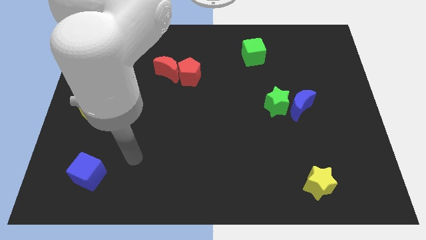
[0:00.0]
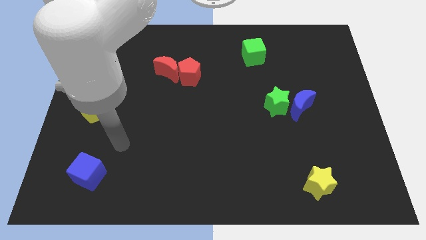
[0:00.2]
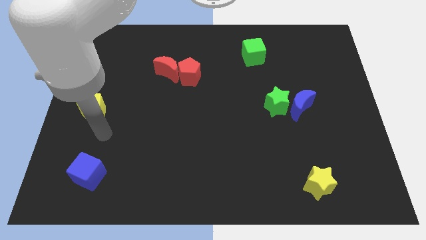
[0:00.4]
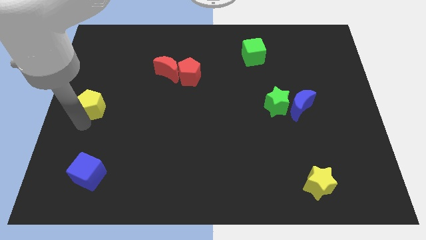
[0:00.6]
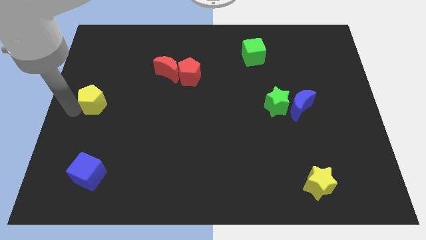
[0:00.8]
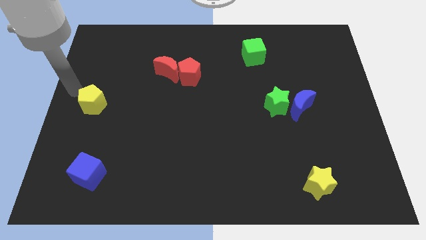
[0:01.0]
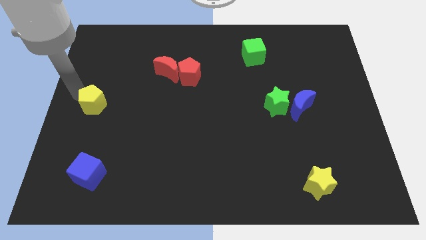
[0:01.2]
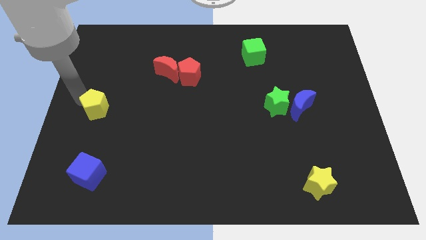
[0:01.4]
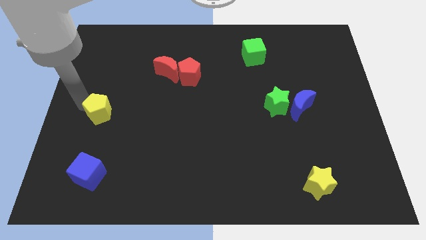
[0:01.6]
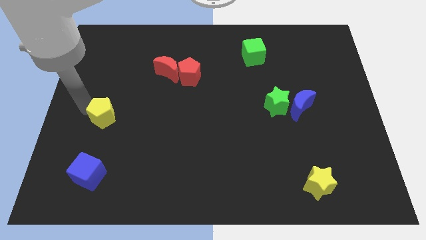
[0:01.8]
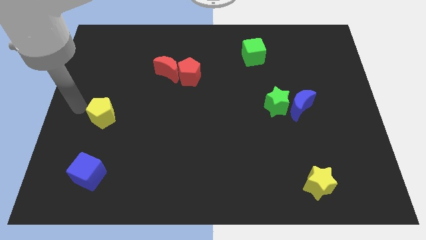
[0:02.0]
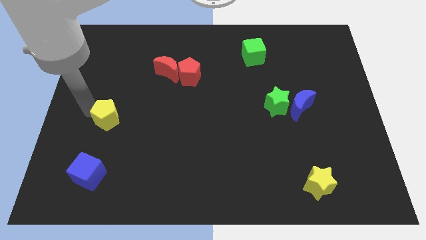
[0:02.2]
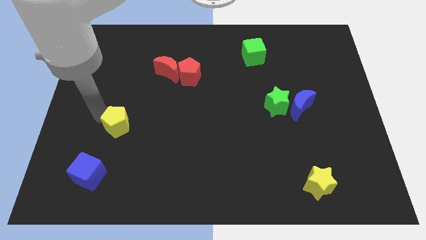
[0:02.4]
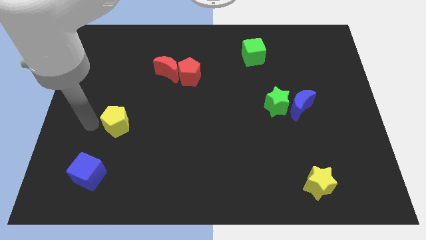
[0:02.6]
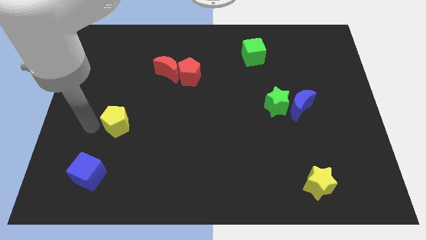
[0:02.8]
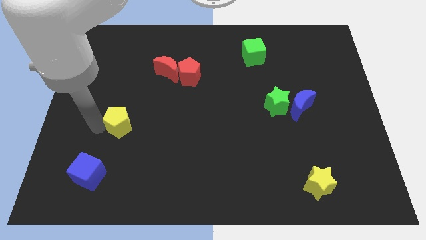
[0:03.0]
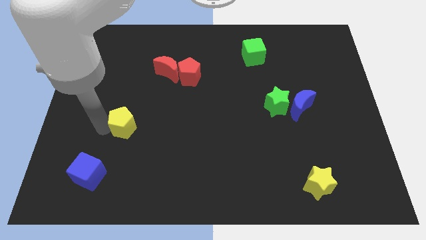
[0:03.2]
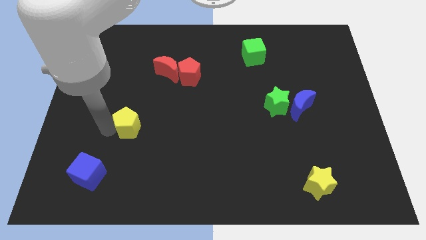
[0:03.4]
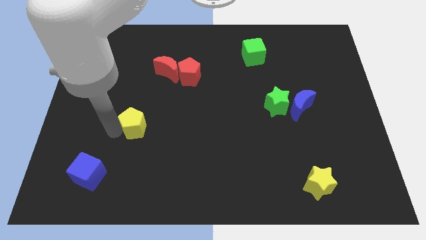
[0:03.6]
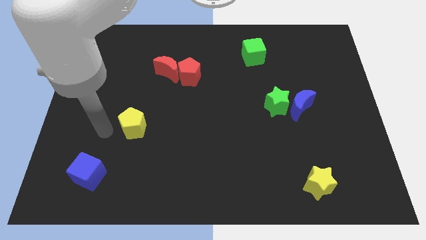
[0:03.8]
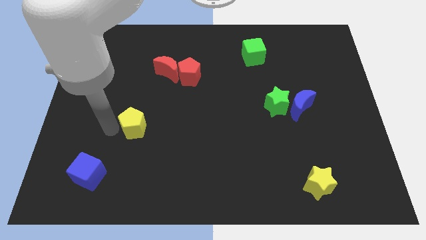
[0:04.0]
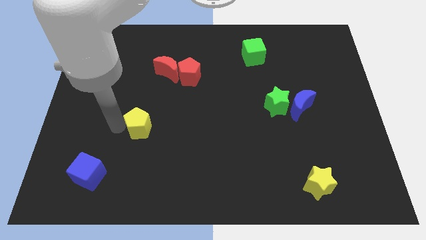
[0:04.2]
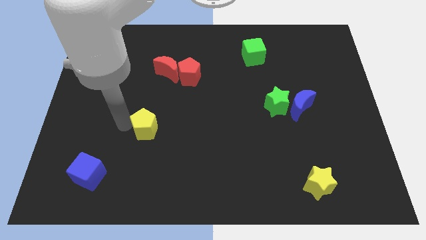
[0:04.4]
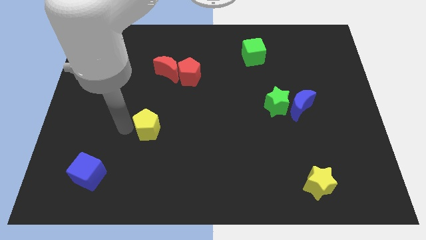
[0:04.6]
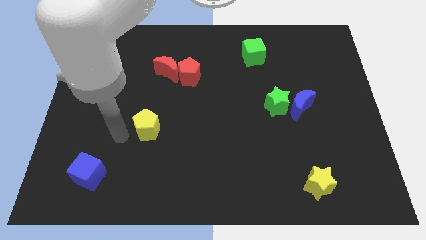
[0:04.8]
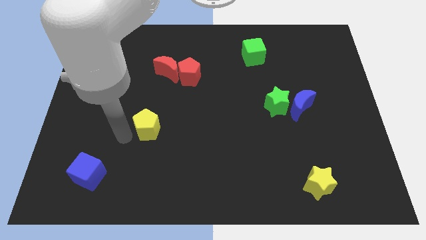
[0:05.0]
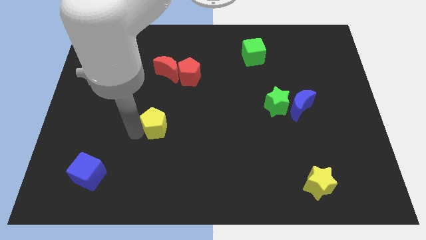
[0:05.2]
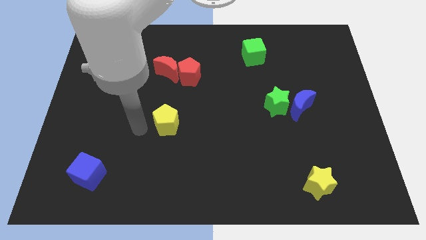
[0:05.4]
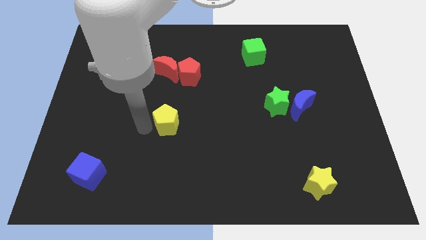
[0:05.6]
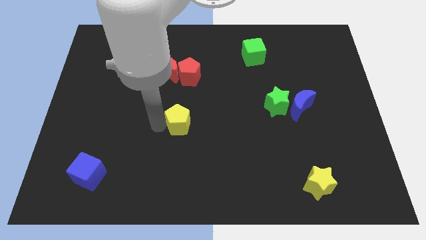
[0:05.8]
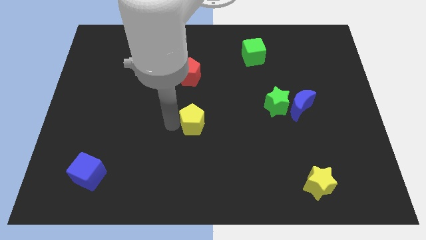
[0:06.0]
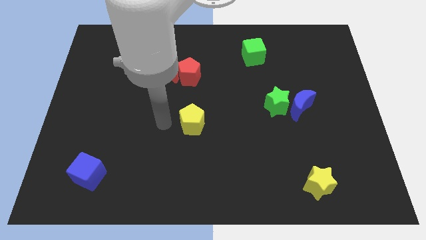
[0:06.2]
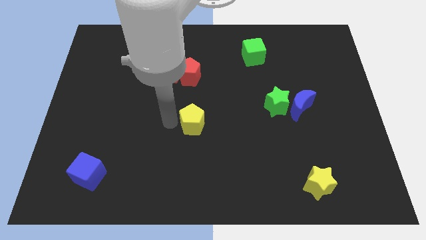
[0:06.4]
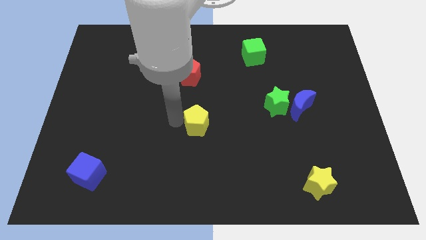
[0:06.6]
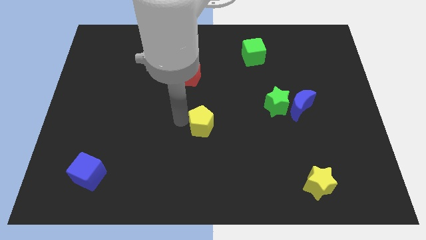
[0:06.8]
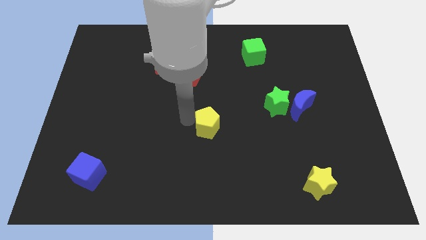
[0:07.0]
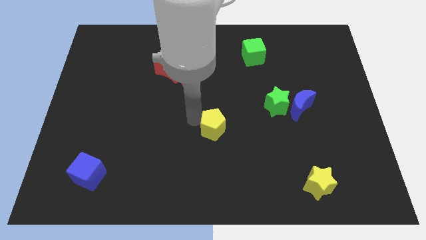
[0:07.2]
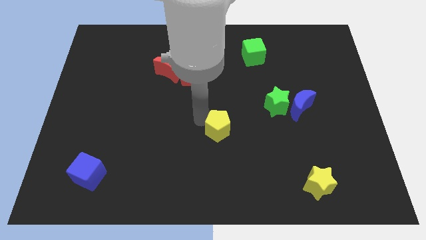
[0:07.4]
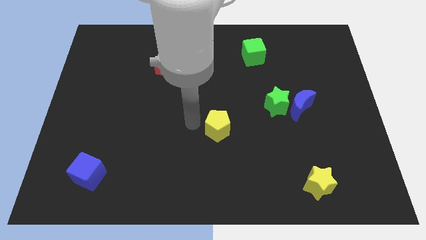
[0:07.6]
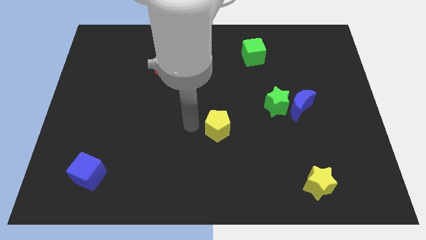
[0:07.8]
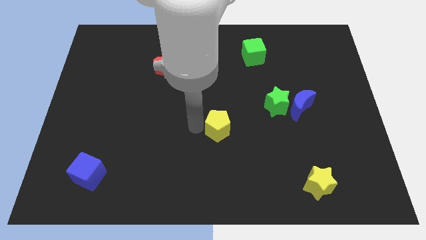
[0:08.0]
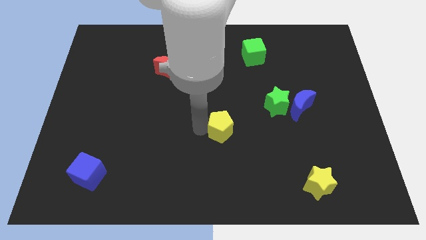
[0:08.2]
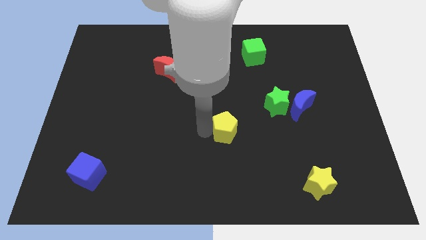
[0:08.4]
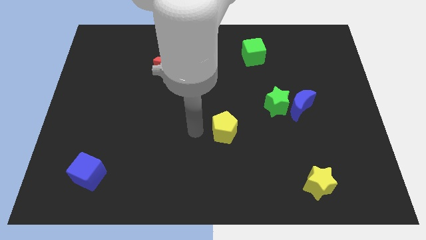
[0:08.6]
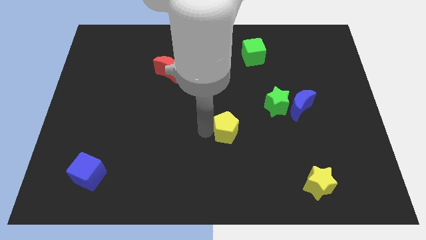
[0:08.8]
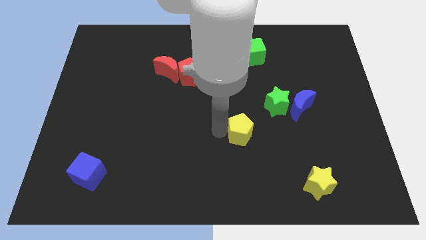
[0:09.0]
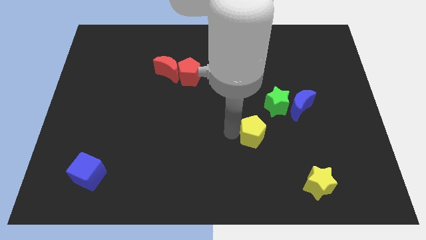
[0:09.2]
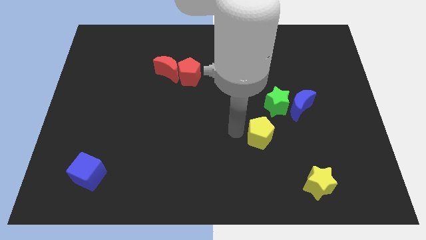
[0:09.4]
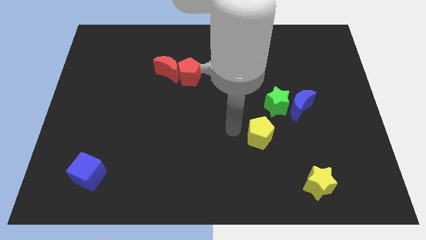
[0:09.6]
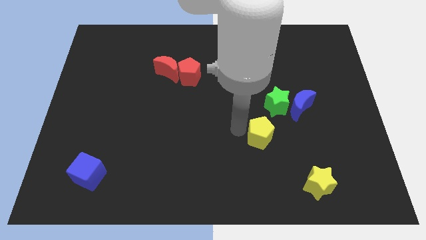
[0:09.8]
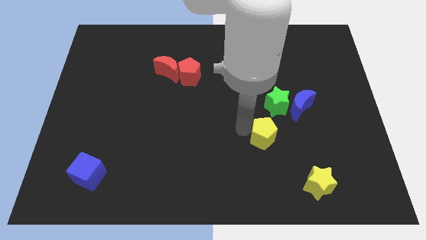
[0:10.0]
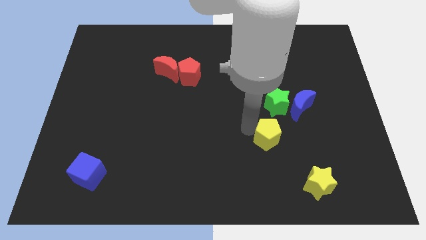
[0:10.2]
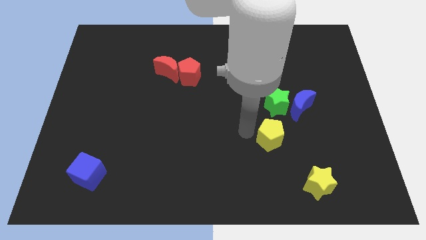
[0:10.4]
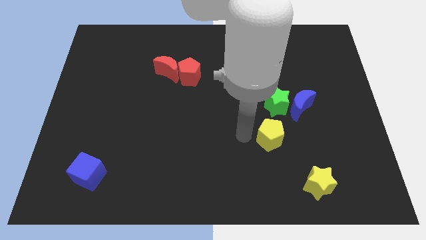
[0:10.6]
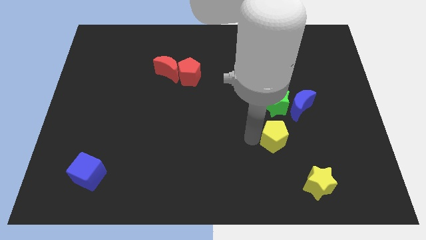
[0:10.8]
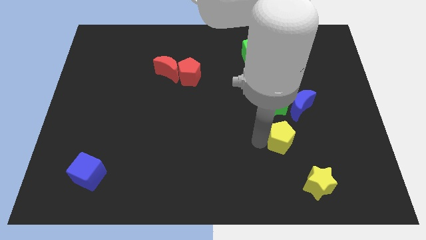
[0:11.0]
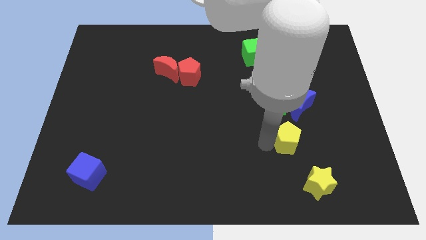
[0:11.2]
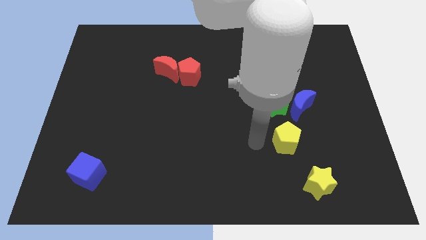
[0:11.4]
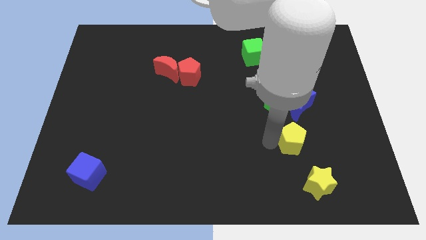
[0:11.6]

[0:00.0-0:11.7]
slide the yellow pentagon to the top of the yellow star

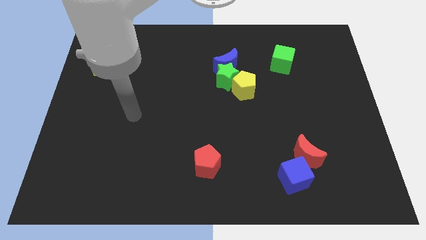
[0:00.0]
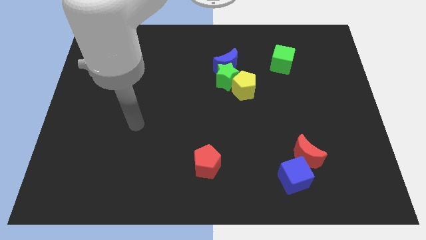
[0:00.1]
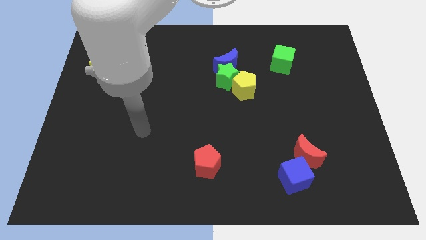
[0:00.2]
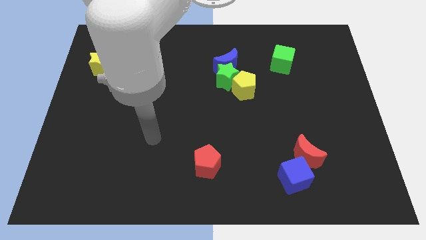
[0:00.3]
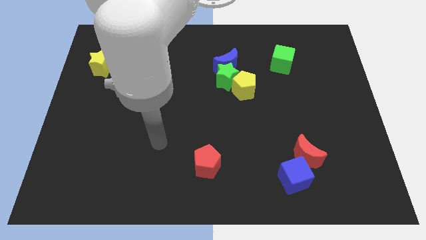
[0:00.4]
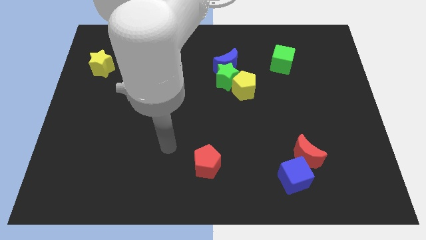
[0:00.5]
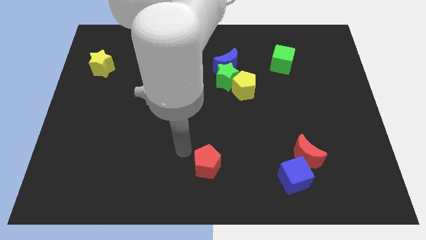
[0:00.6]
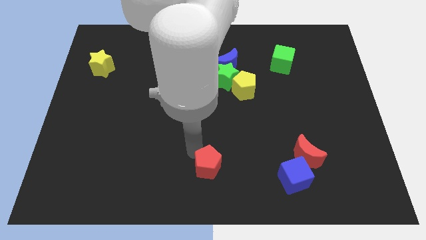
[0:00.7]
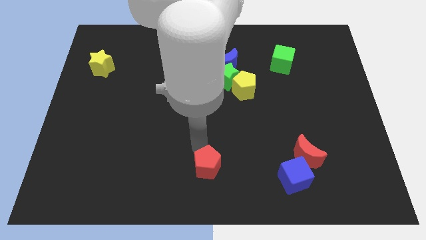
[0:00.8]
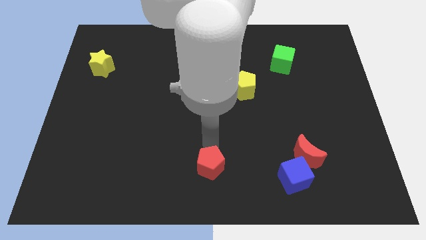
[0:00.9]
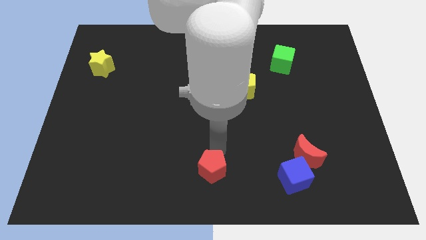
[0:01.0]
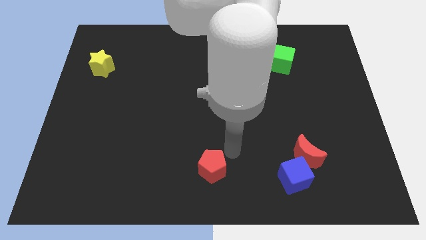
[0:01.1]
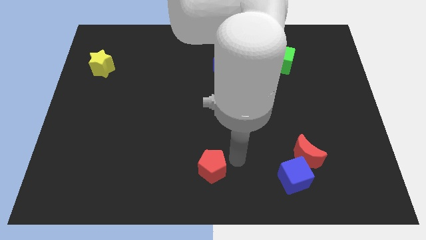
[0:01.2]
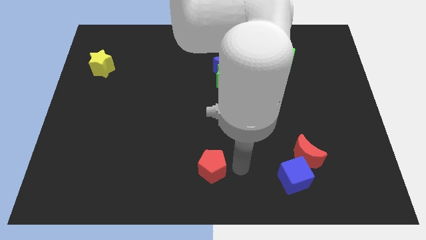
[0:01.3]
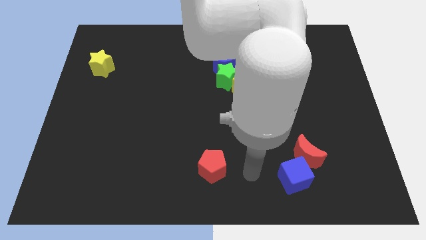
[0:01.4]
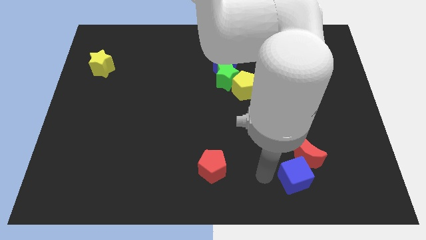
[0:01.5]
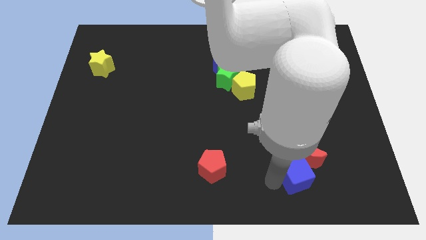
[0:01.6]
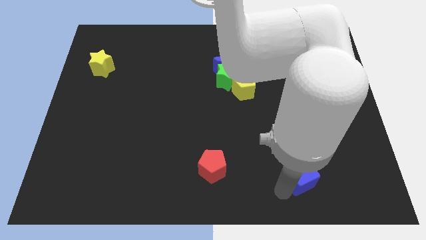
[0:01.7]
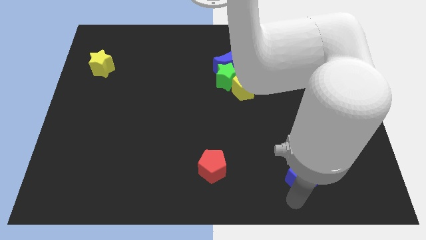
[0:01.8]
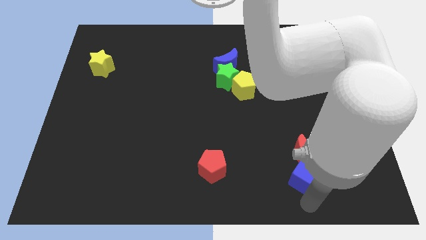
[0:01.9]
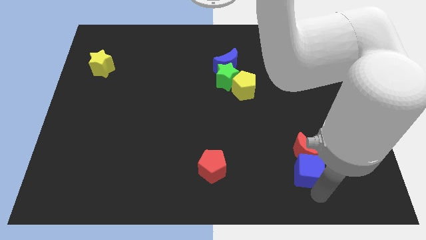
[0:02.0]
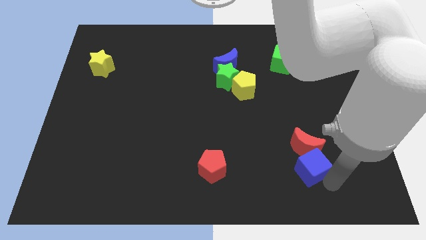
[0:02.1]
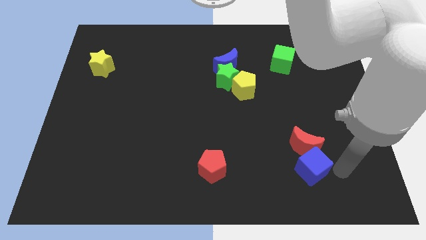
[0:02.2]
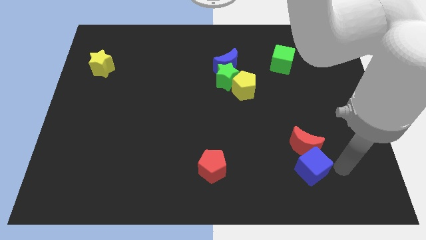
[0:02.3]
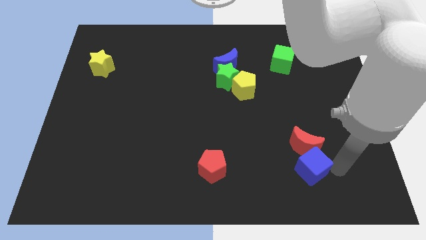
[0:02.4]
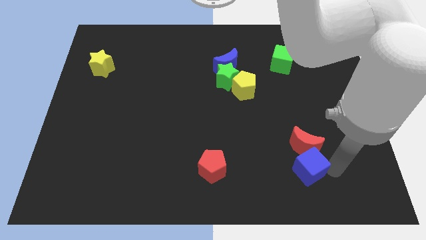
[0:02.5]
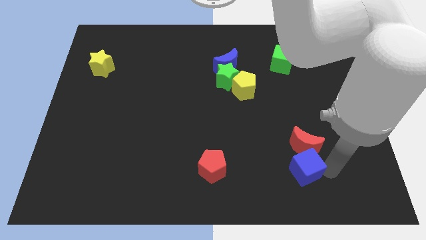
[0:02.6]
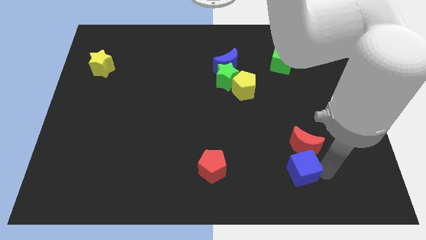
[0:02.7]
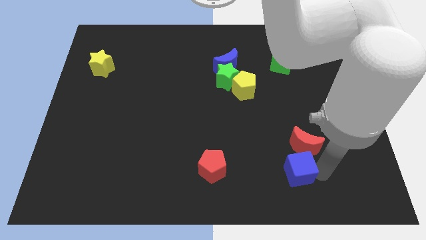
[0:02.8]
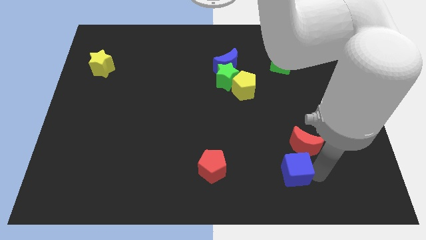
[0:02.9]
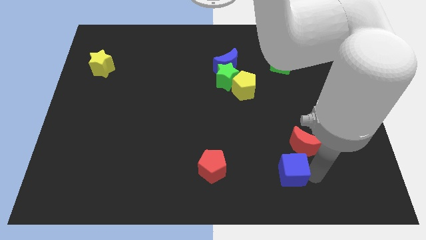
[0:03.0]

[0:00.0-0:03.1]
put the blue cube right of the red pentagon
